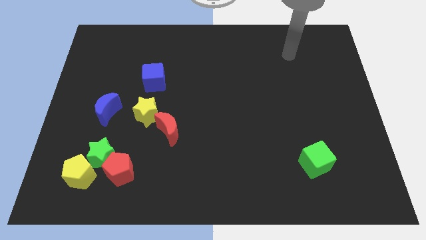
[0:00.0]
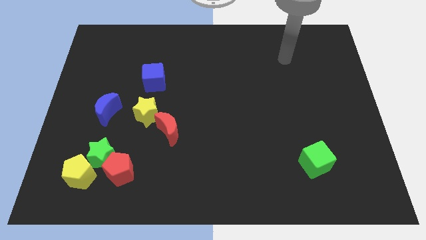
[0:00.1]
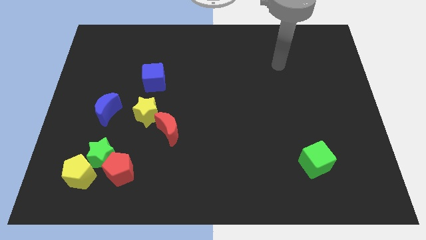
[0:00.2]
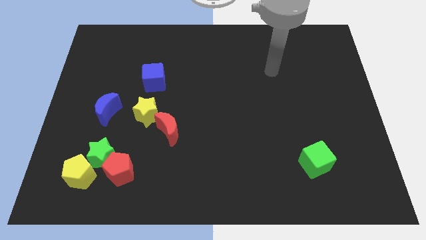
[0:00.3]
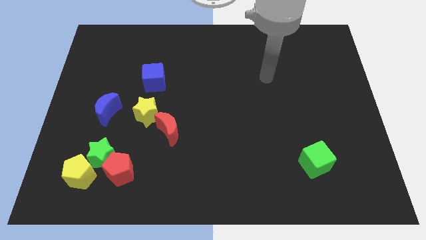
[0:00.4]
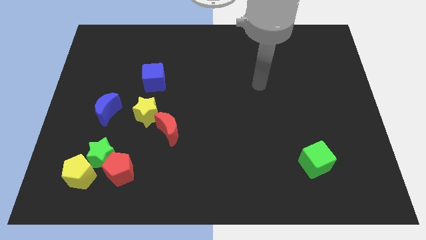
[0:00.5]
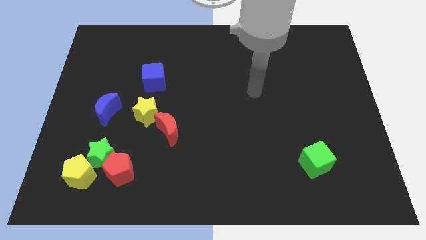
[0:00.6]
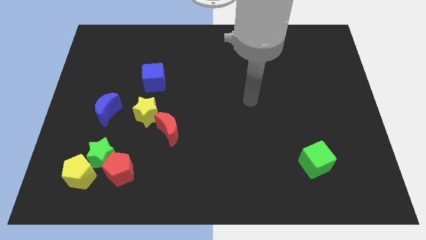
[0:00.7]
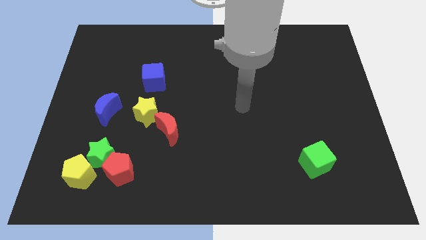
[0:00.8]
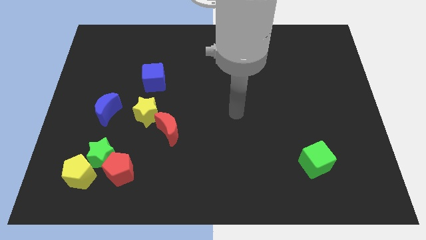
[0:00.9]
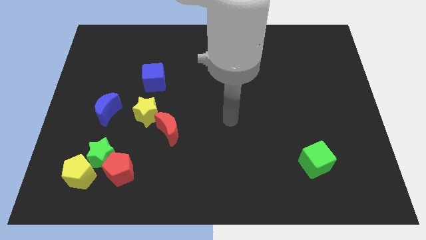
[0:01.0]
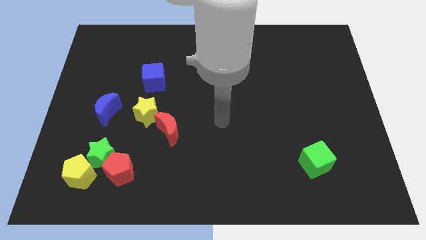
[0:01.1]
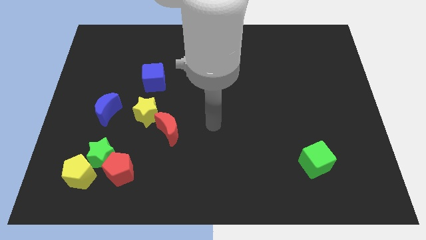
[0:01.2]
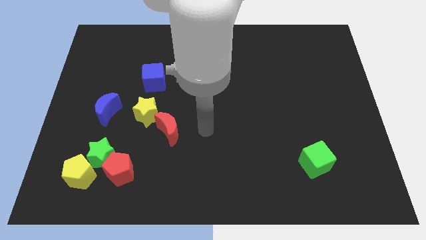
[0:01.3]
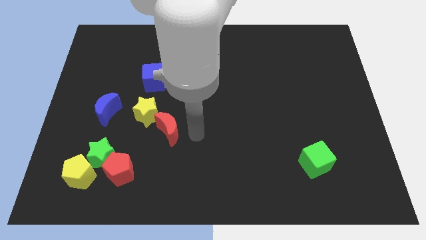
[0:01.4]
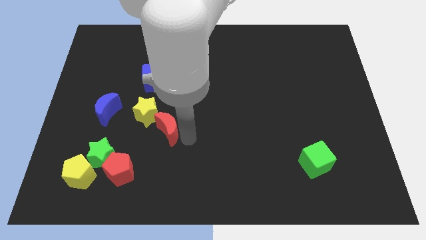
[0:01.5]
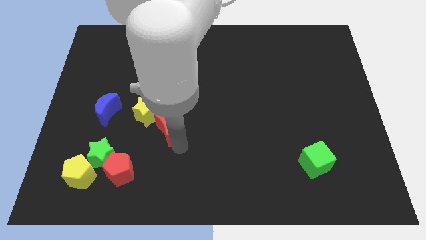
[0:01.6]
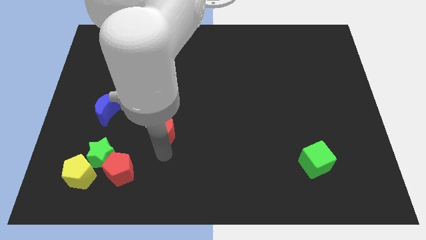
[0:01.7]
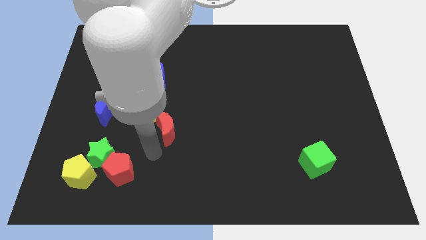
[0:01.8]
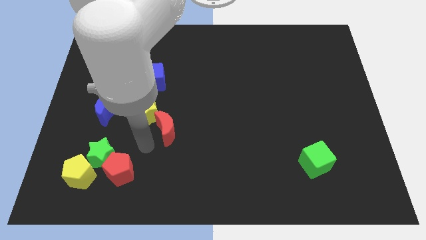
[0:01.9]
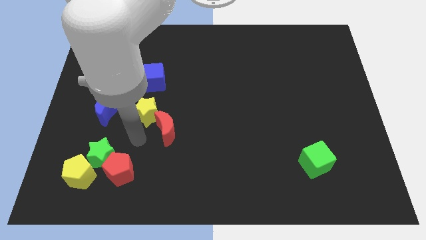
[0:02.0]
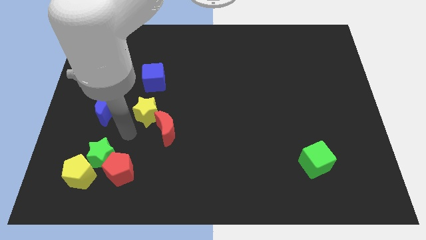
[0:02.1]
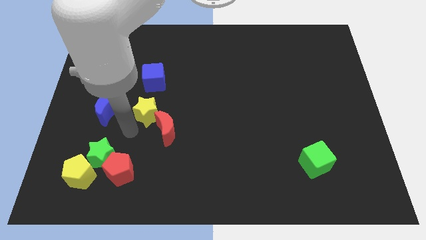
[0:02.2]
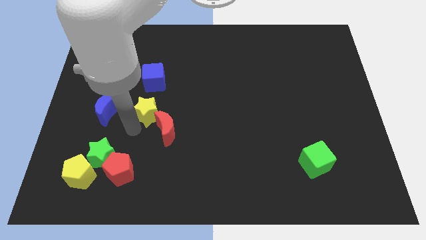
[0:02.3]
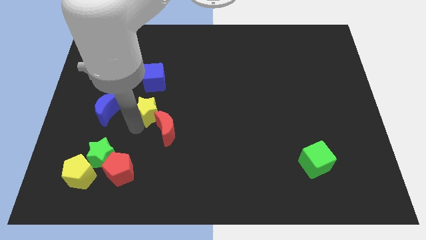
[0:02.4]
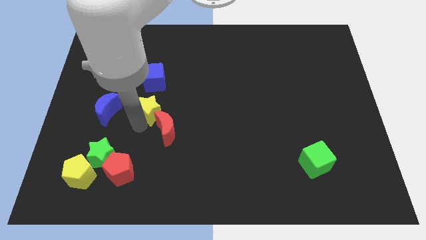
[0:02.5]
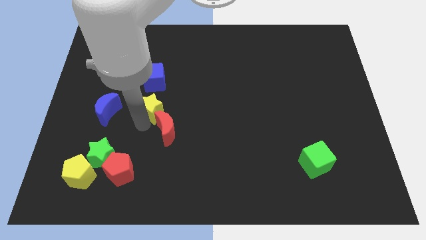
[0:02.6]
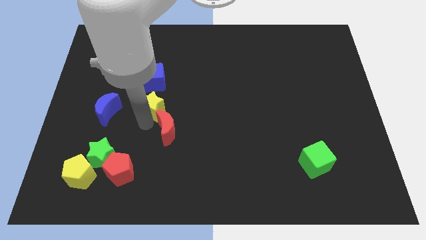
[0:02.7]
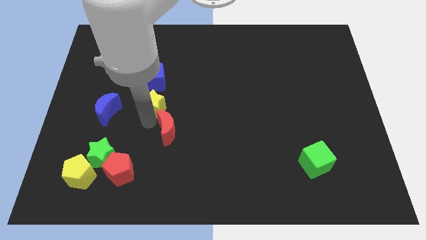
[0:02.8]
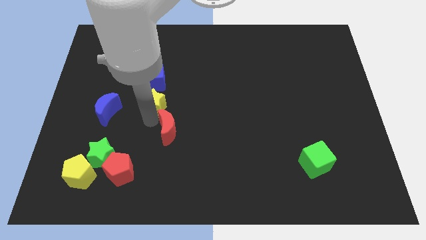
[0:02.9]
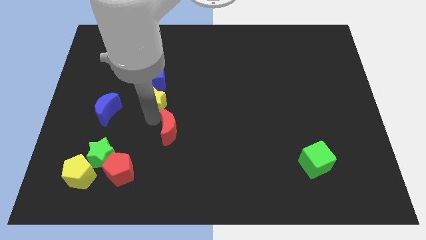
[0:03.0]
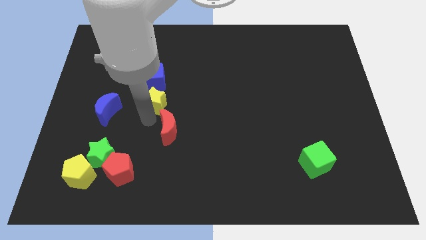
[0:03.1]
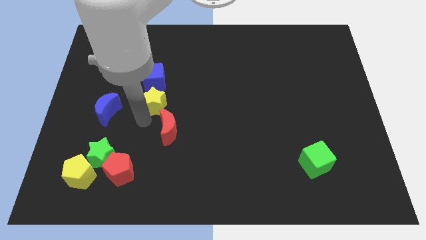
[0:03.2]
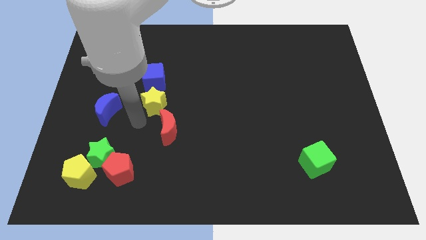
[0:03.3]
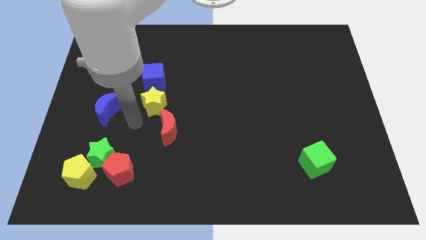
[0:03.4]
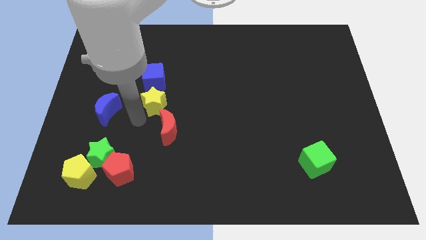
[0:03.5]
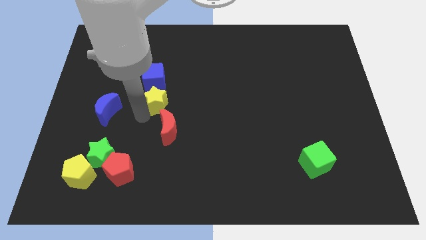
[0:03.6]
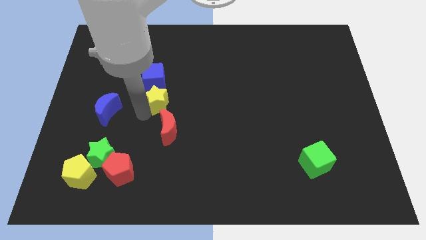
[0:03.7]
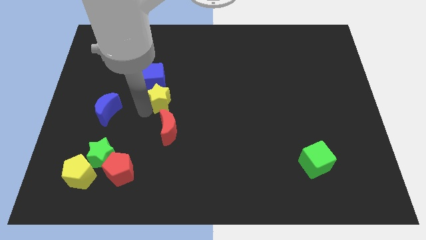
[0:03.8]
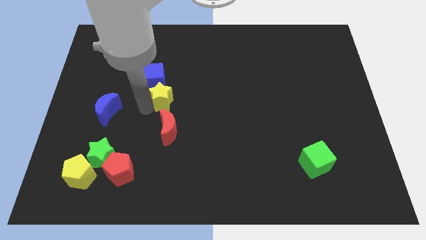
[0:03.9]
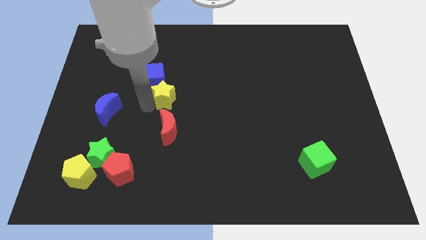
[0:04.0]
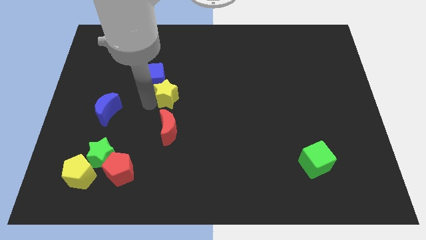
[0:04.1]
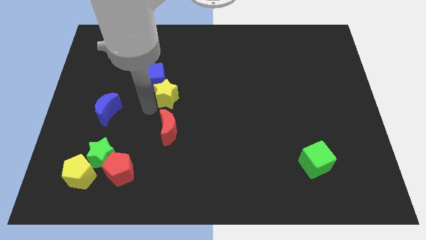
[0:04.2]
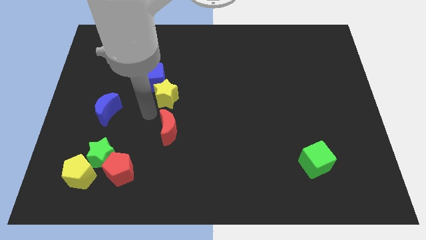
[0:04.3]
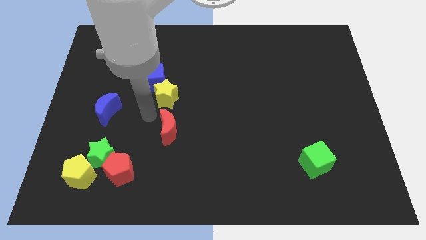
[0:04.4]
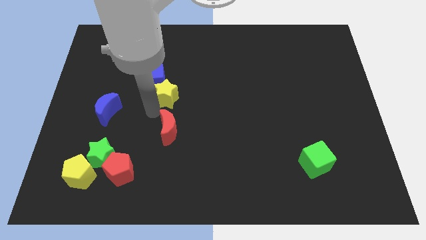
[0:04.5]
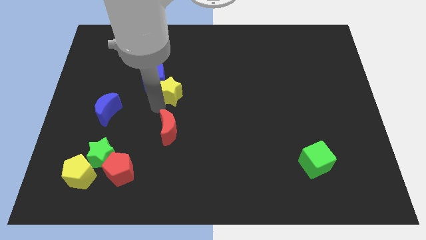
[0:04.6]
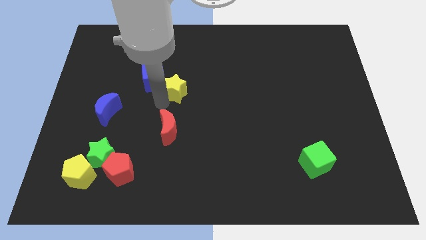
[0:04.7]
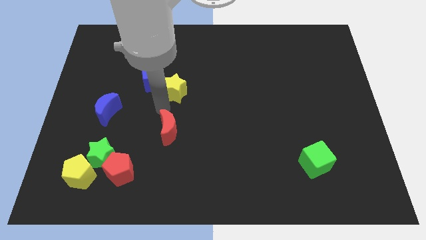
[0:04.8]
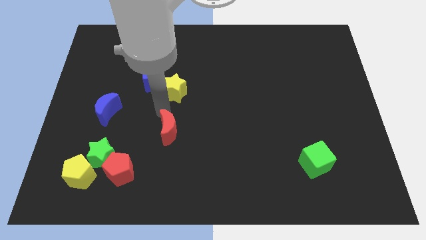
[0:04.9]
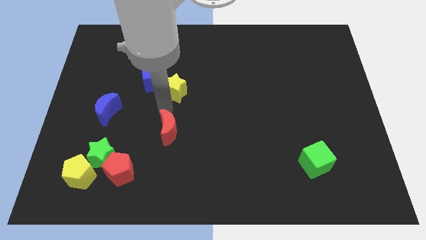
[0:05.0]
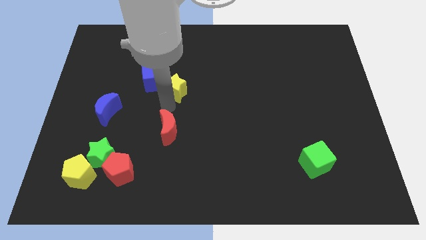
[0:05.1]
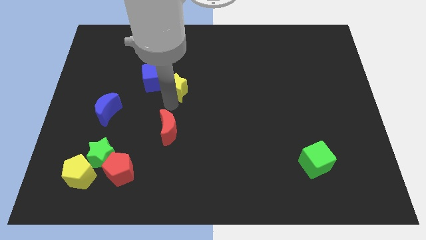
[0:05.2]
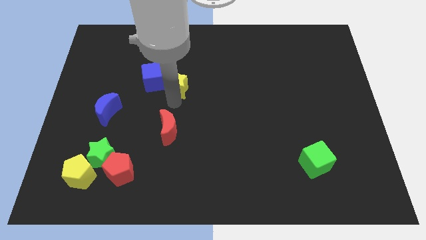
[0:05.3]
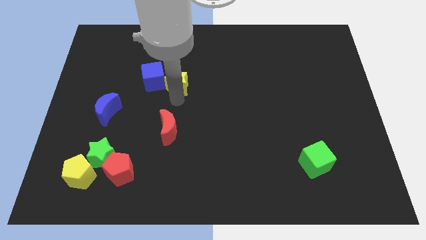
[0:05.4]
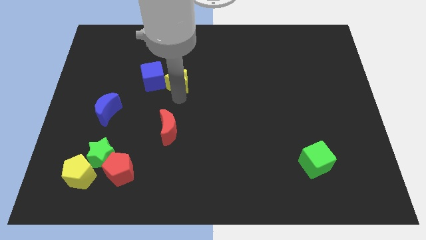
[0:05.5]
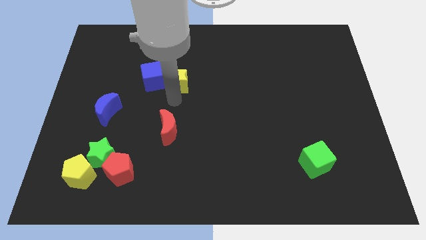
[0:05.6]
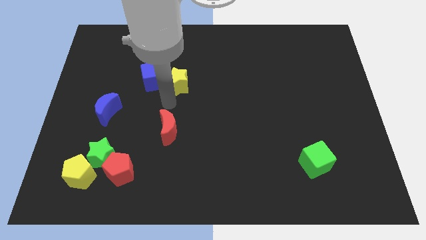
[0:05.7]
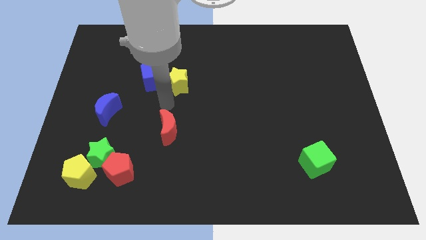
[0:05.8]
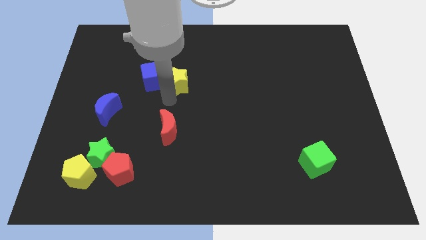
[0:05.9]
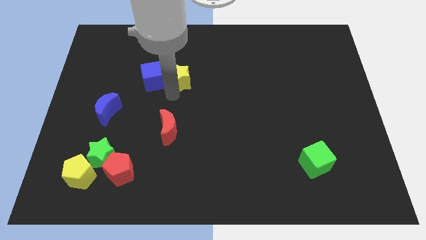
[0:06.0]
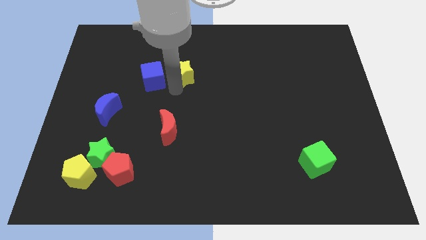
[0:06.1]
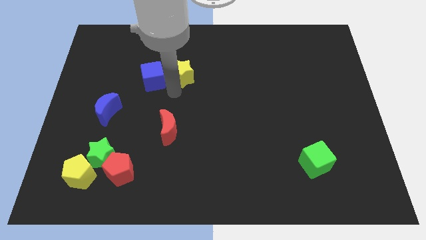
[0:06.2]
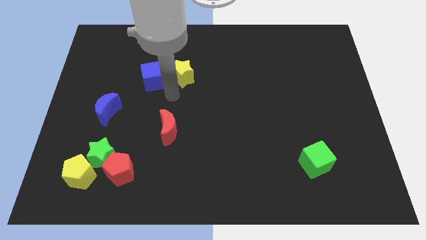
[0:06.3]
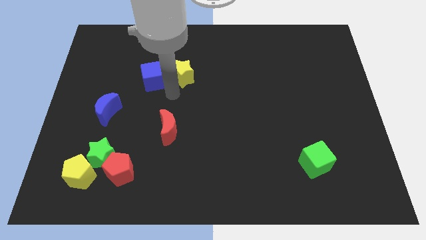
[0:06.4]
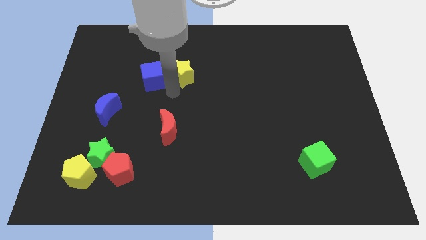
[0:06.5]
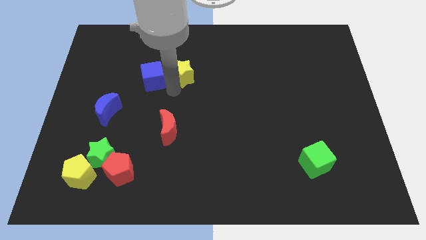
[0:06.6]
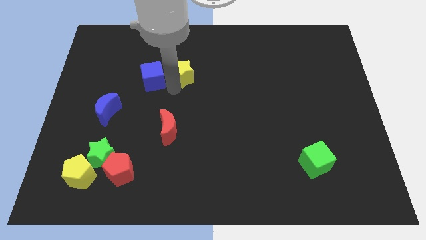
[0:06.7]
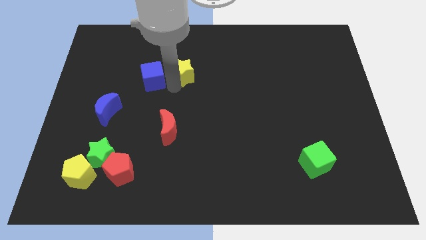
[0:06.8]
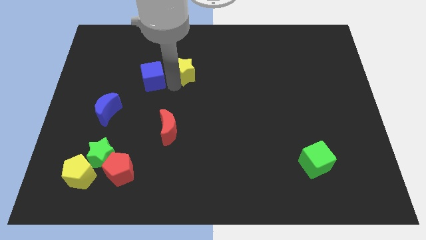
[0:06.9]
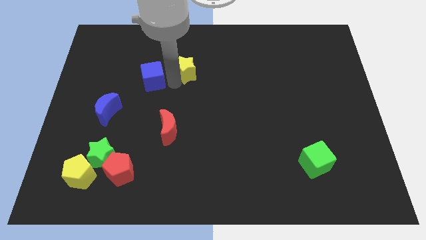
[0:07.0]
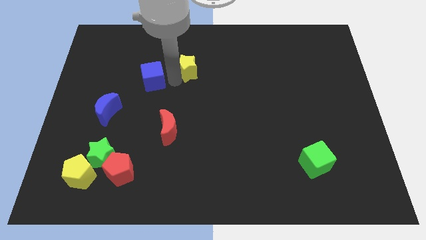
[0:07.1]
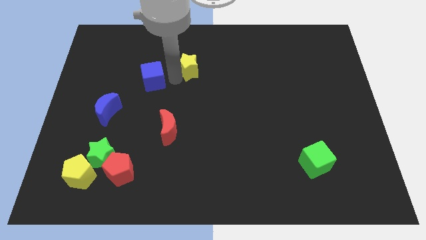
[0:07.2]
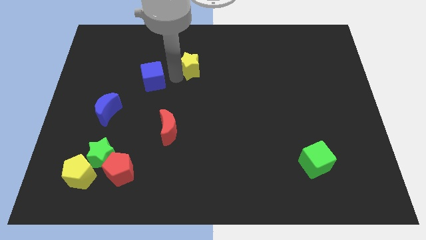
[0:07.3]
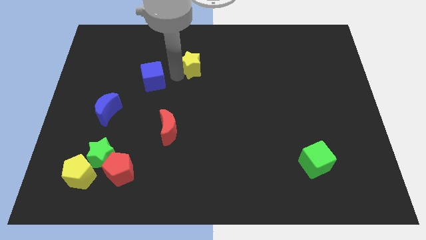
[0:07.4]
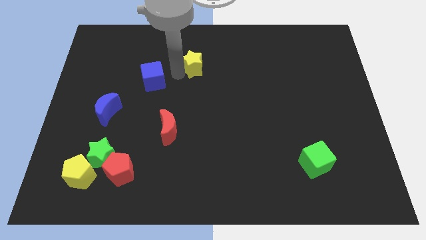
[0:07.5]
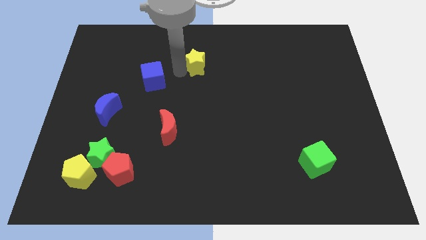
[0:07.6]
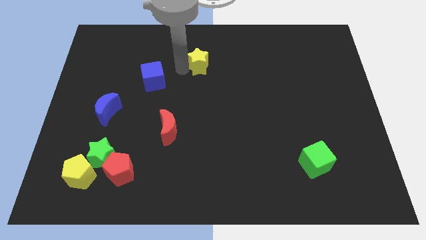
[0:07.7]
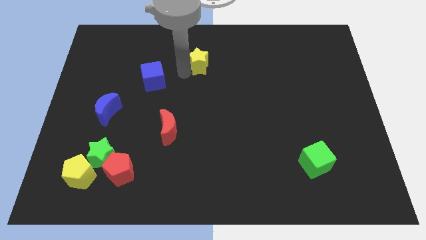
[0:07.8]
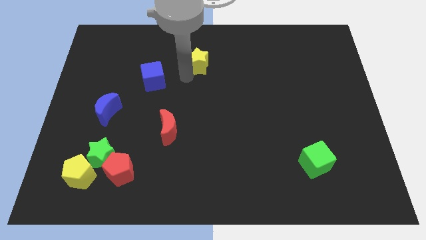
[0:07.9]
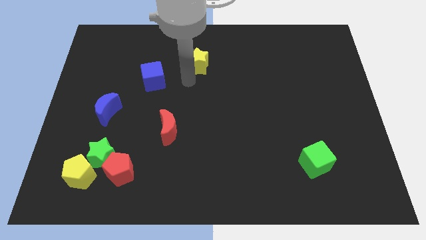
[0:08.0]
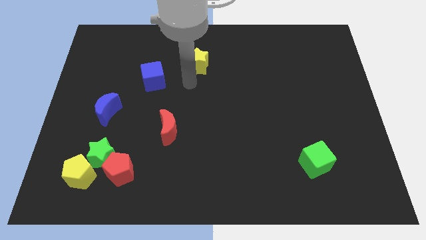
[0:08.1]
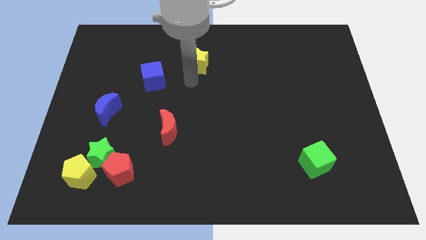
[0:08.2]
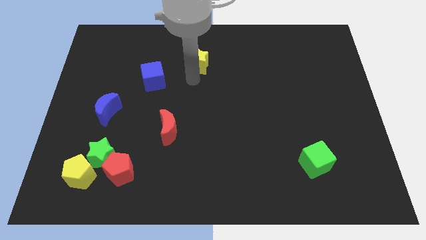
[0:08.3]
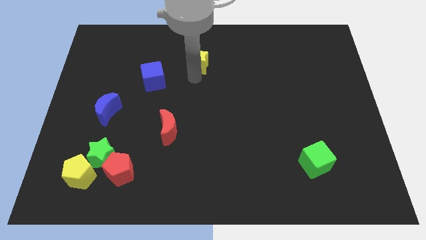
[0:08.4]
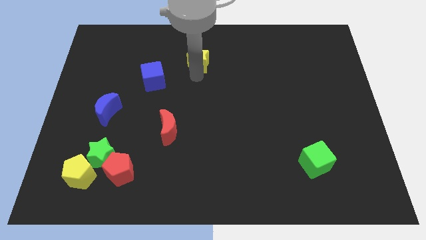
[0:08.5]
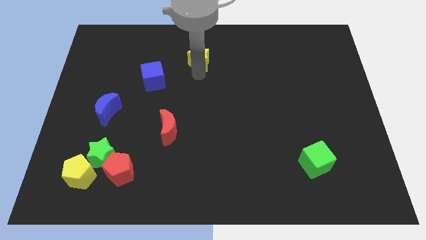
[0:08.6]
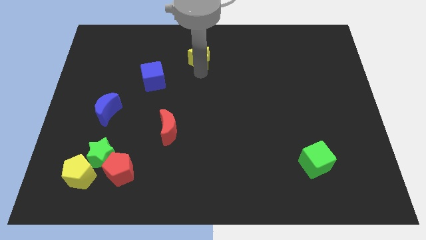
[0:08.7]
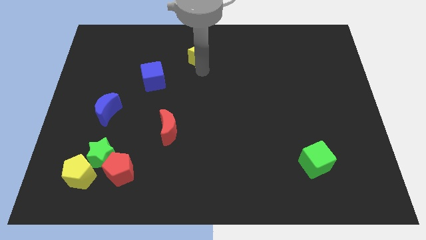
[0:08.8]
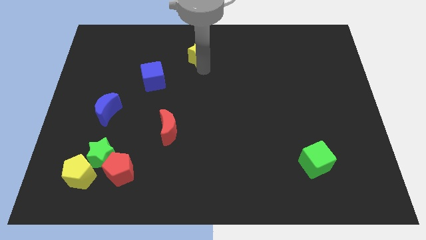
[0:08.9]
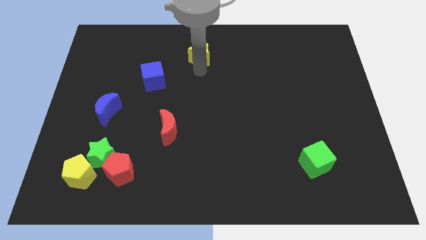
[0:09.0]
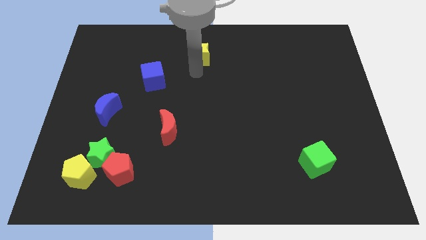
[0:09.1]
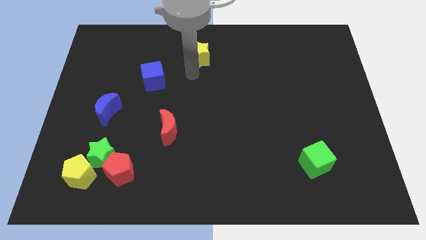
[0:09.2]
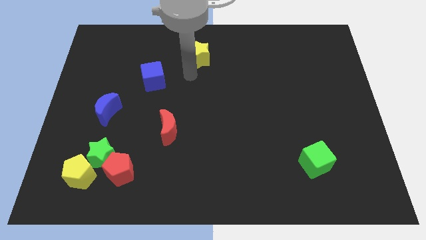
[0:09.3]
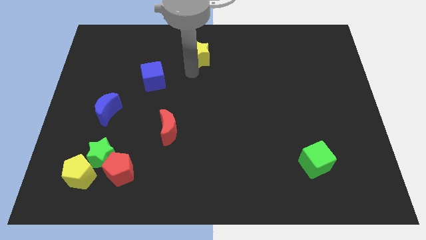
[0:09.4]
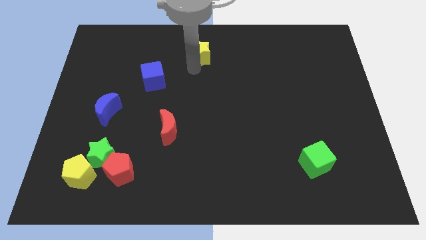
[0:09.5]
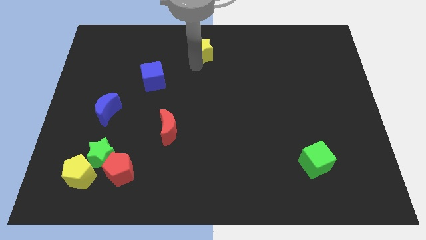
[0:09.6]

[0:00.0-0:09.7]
slide the yellow star to the top
